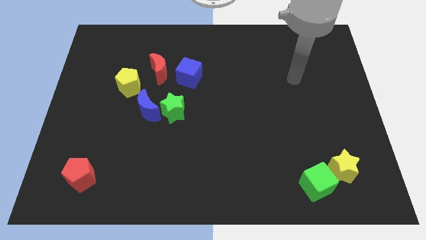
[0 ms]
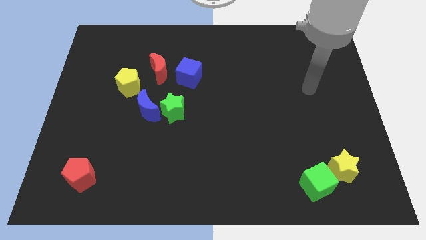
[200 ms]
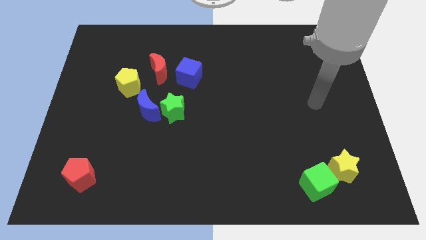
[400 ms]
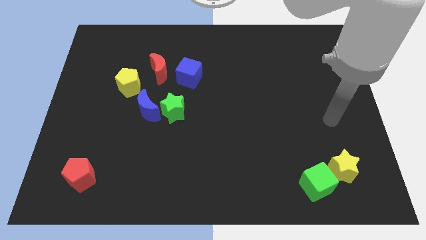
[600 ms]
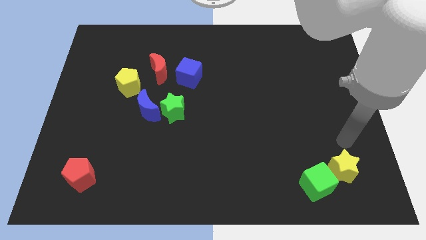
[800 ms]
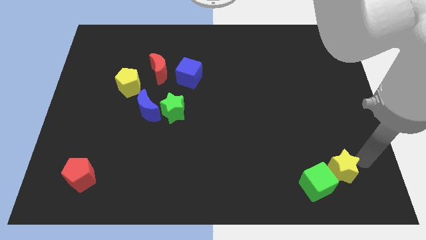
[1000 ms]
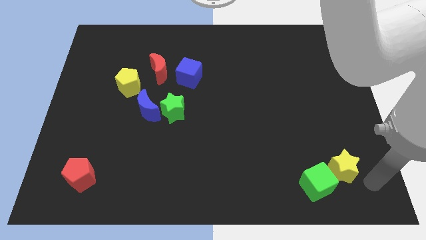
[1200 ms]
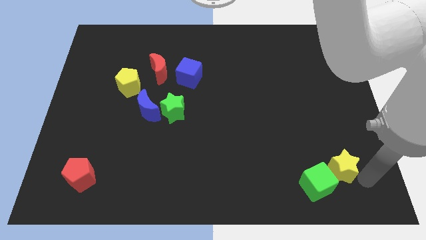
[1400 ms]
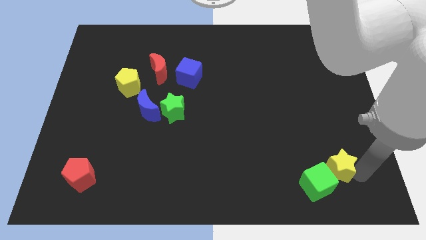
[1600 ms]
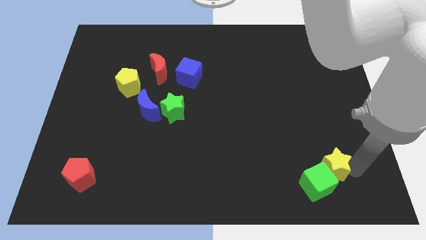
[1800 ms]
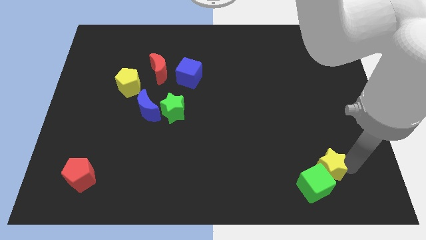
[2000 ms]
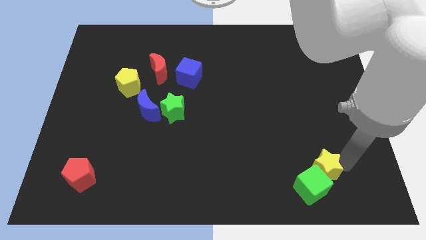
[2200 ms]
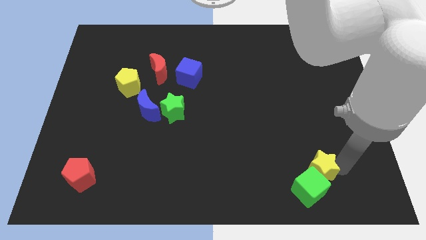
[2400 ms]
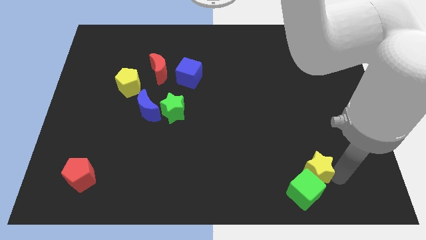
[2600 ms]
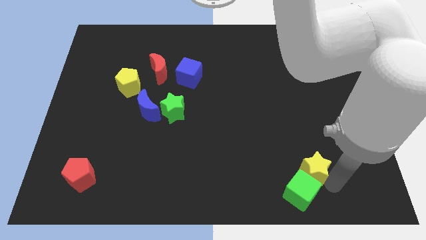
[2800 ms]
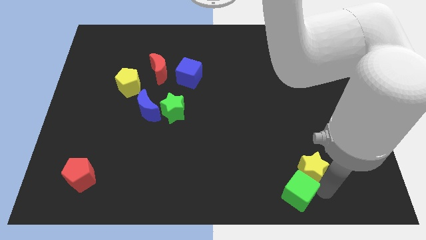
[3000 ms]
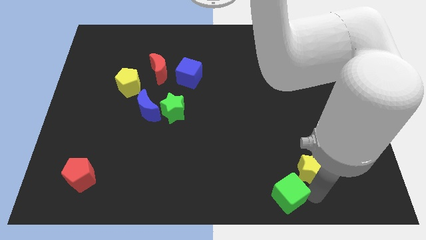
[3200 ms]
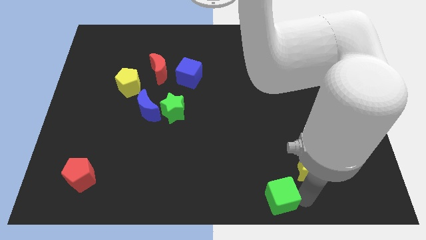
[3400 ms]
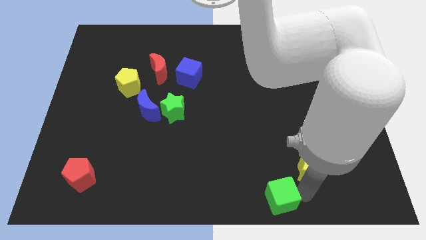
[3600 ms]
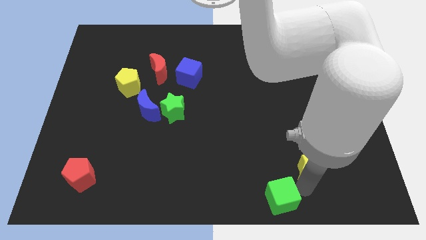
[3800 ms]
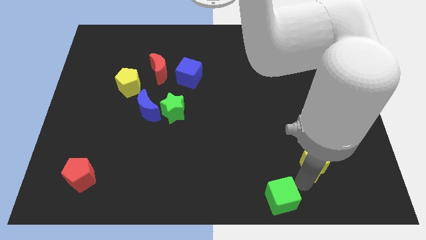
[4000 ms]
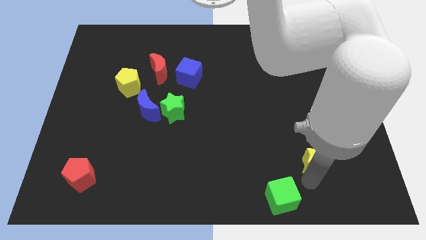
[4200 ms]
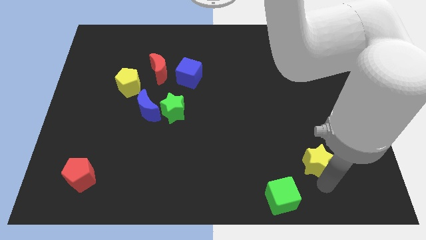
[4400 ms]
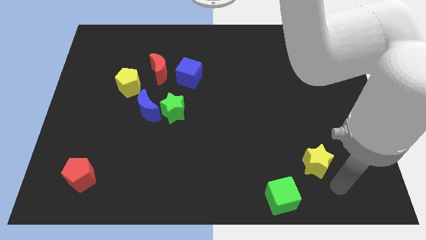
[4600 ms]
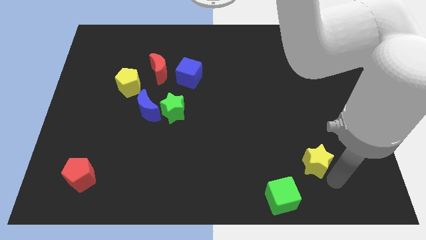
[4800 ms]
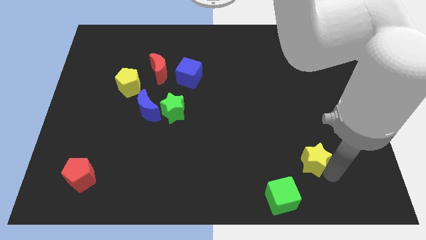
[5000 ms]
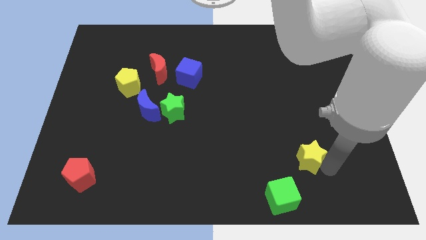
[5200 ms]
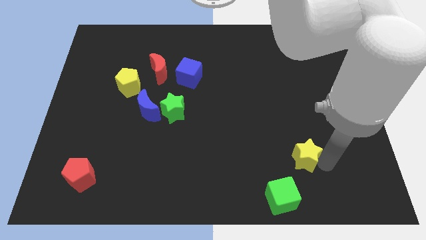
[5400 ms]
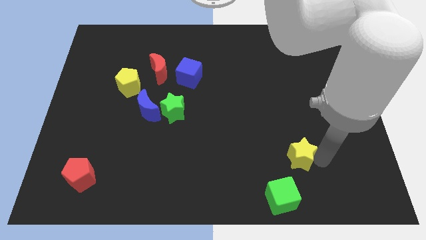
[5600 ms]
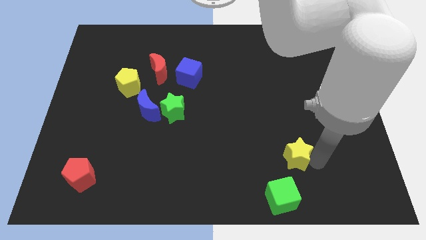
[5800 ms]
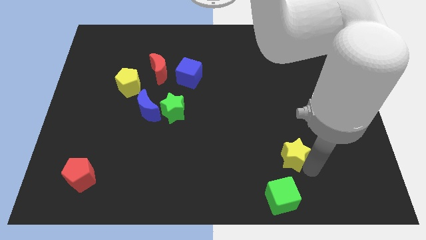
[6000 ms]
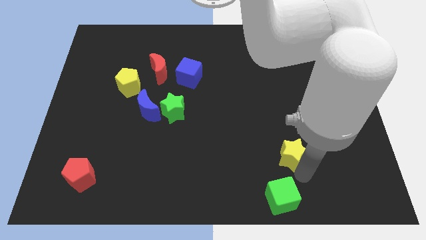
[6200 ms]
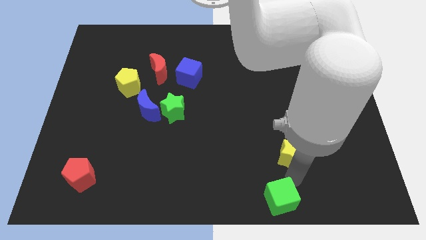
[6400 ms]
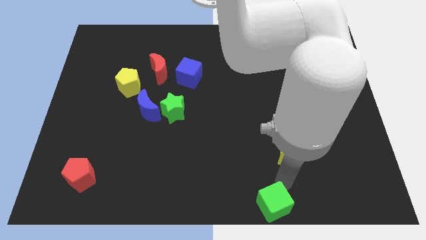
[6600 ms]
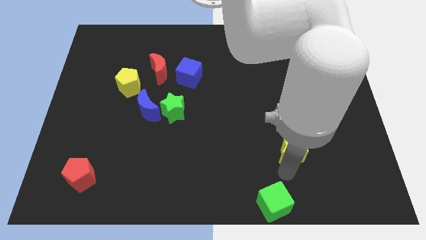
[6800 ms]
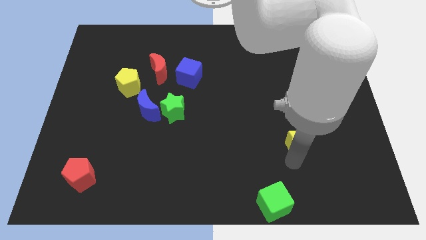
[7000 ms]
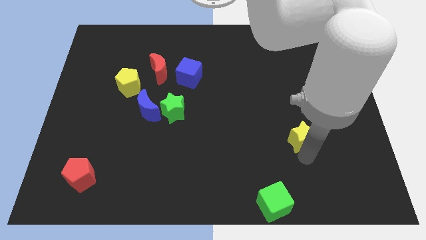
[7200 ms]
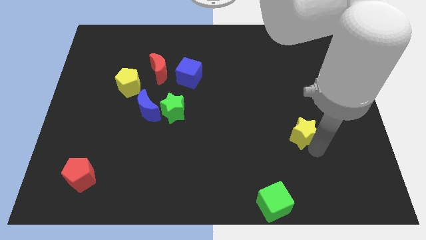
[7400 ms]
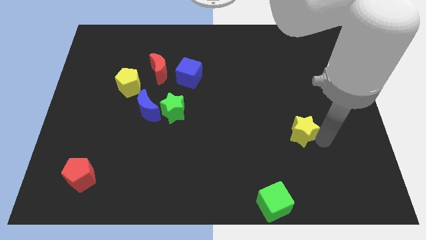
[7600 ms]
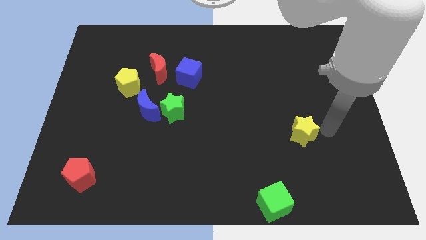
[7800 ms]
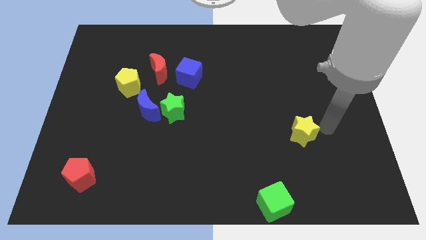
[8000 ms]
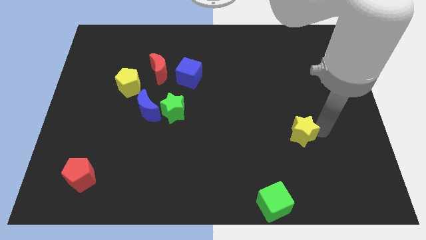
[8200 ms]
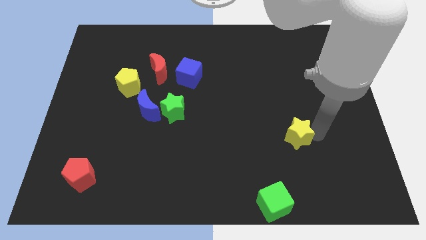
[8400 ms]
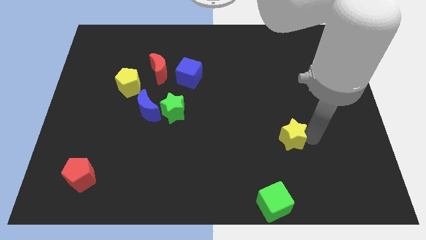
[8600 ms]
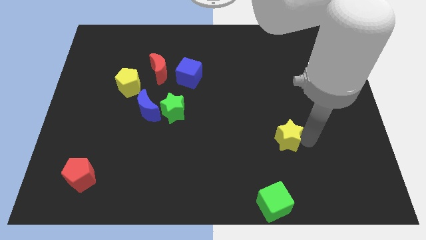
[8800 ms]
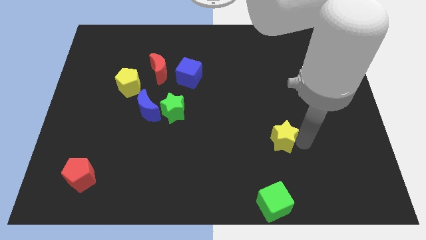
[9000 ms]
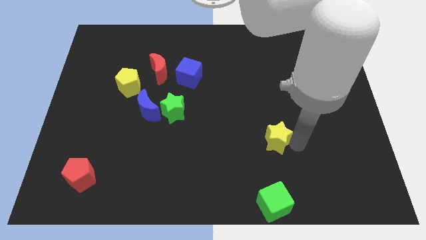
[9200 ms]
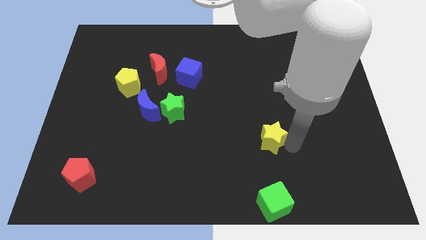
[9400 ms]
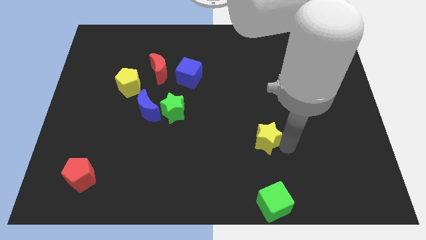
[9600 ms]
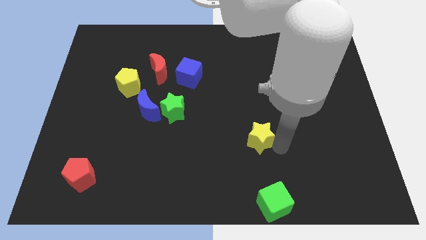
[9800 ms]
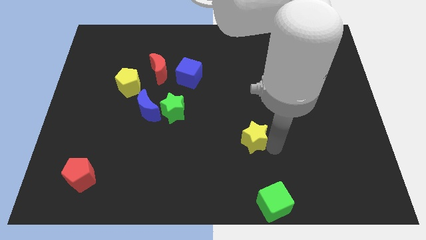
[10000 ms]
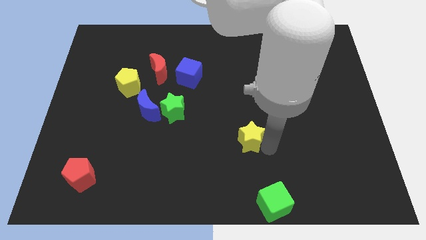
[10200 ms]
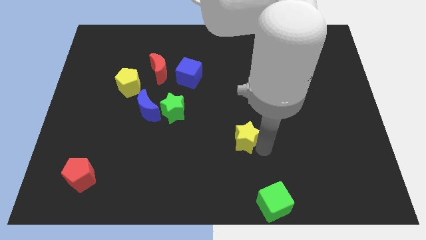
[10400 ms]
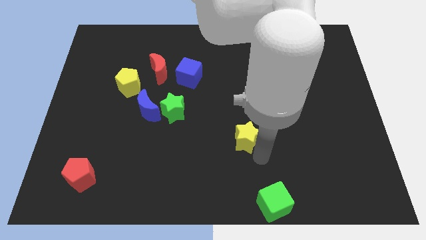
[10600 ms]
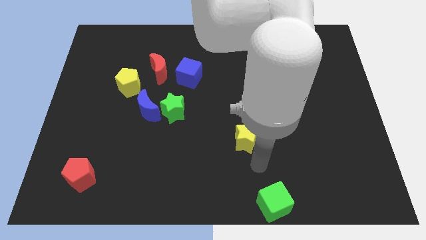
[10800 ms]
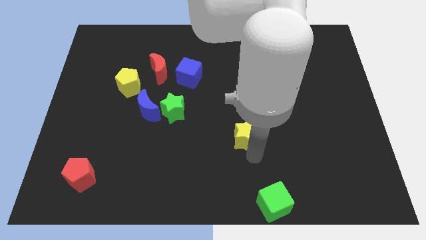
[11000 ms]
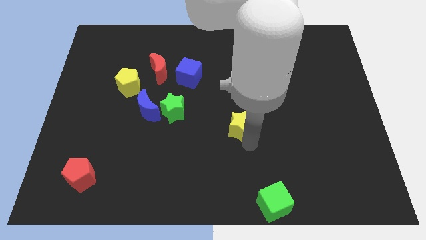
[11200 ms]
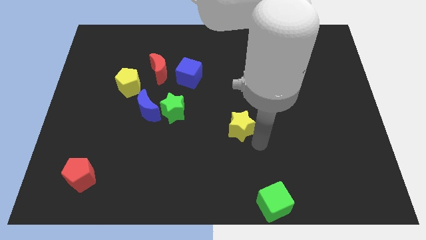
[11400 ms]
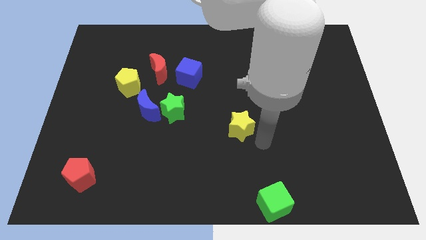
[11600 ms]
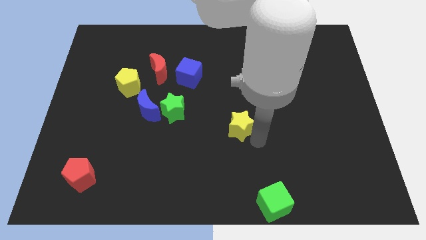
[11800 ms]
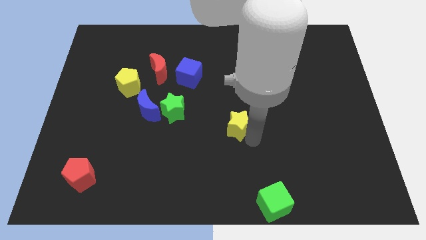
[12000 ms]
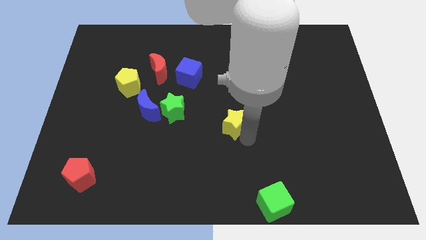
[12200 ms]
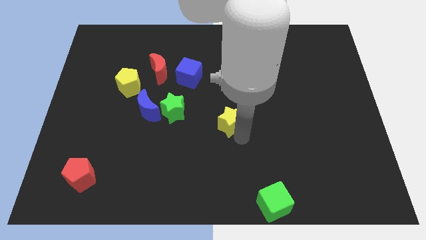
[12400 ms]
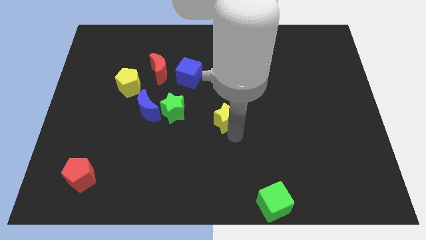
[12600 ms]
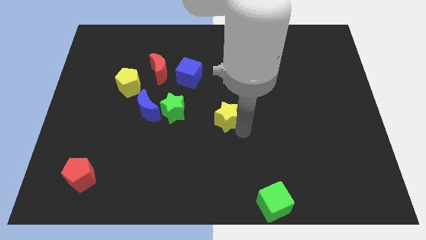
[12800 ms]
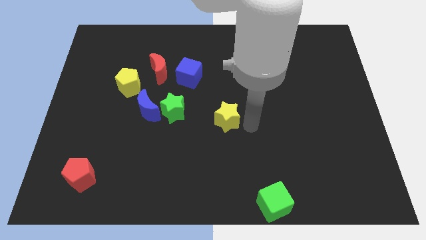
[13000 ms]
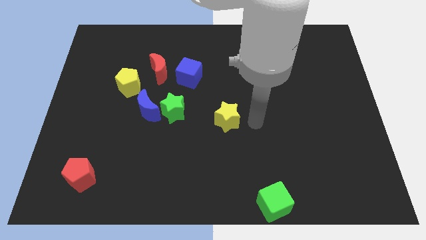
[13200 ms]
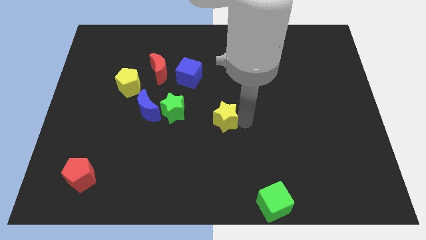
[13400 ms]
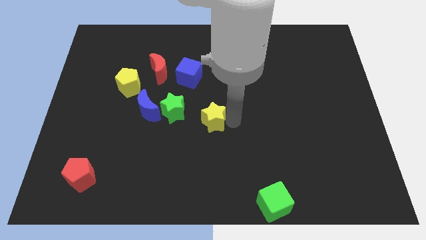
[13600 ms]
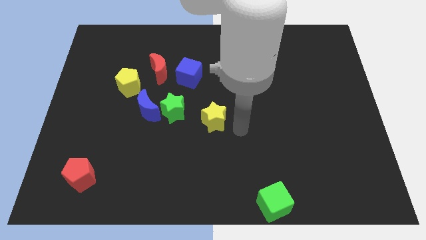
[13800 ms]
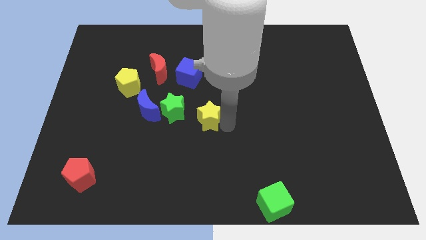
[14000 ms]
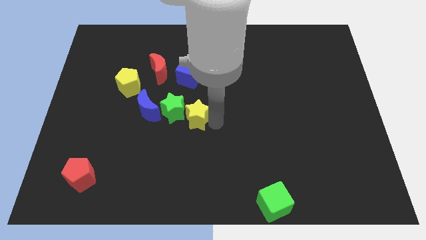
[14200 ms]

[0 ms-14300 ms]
move the yellow star next to the green star
